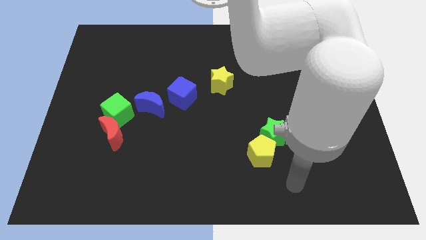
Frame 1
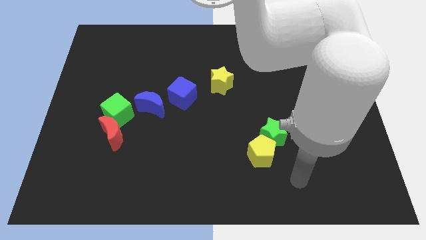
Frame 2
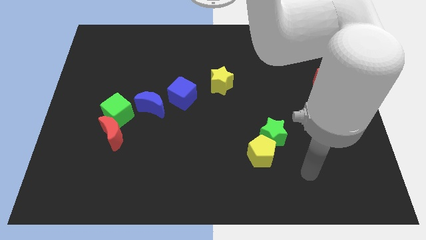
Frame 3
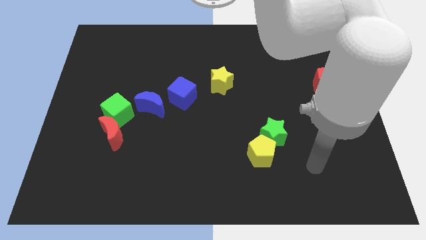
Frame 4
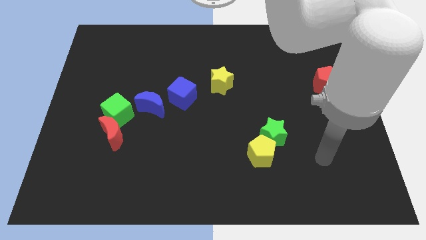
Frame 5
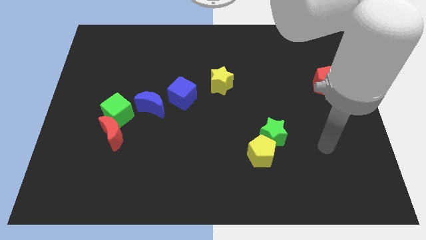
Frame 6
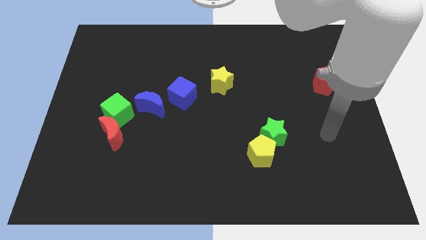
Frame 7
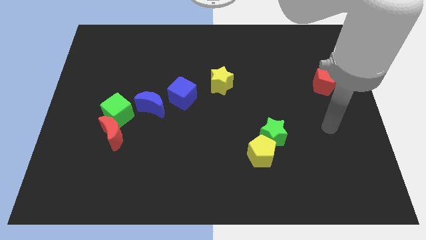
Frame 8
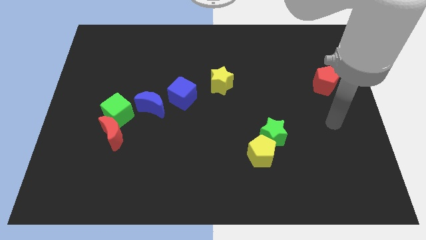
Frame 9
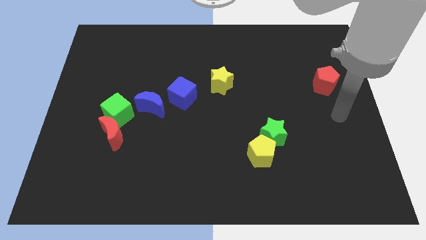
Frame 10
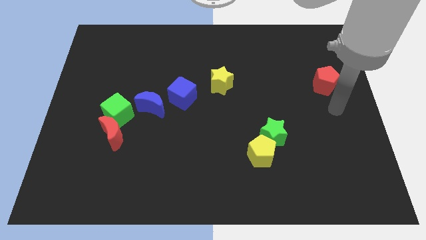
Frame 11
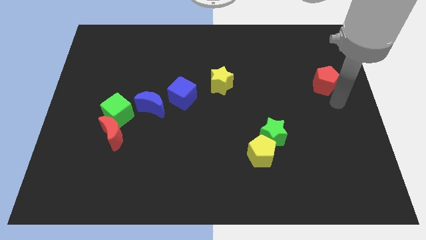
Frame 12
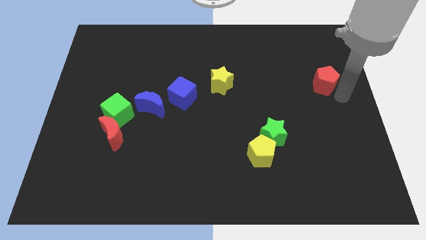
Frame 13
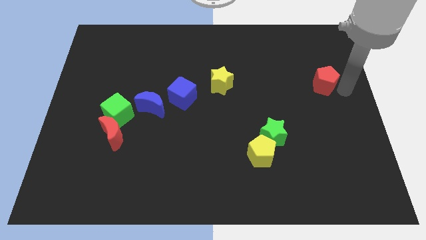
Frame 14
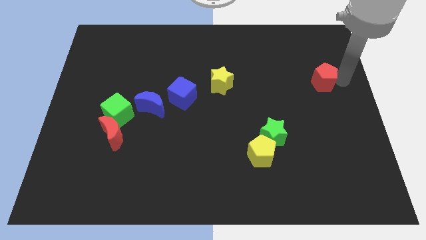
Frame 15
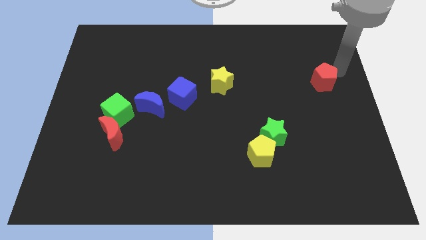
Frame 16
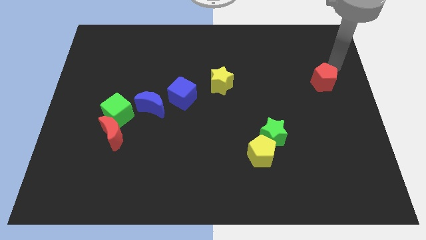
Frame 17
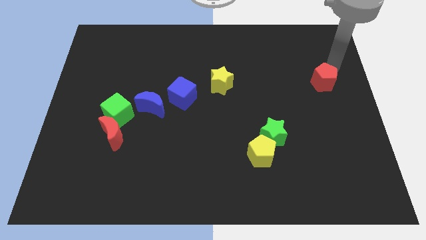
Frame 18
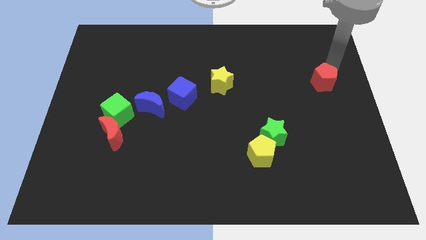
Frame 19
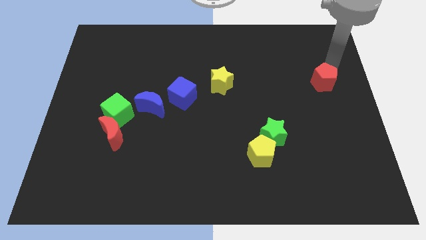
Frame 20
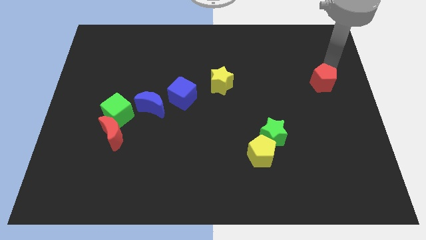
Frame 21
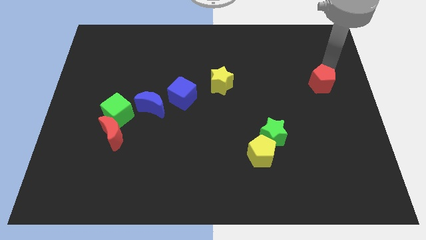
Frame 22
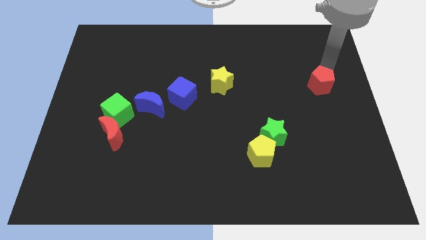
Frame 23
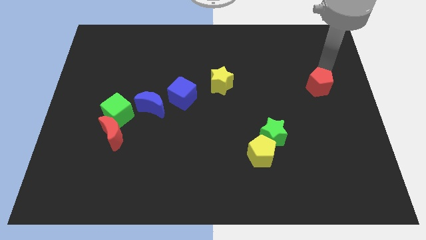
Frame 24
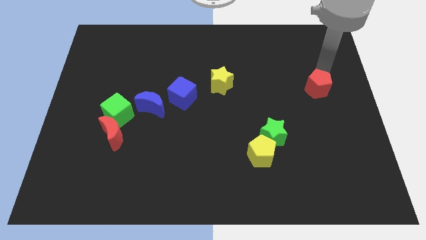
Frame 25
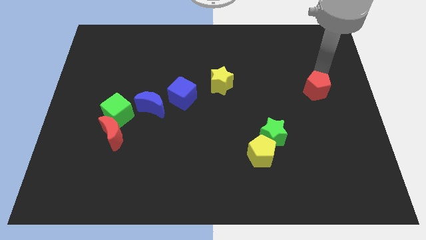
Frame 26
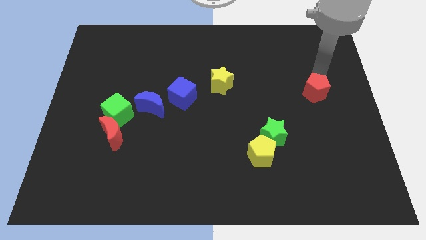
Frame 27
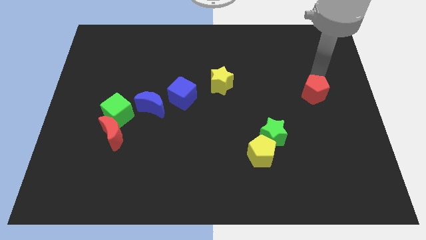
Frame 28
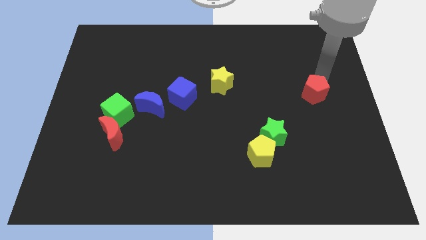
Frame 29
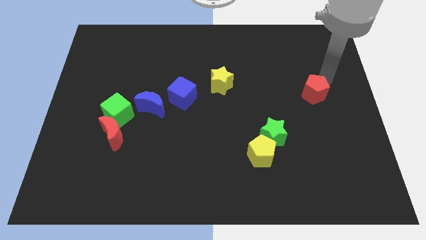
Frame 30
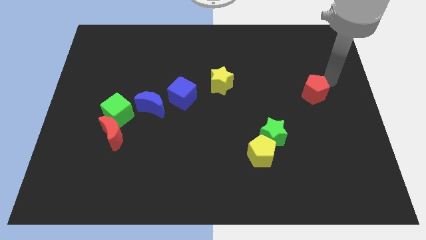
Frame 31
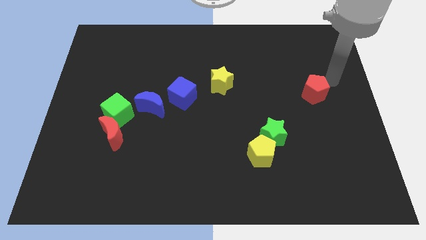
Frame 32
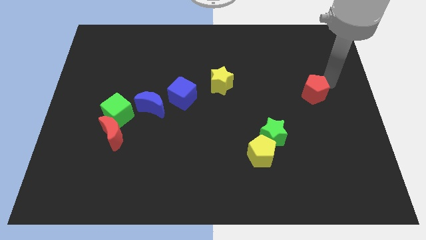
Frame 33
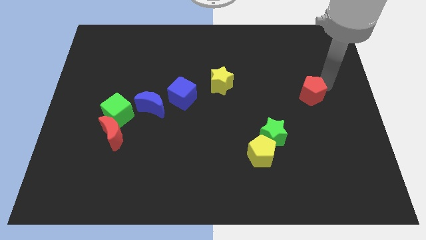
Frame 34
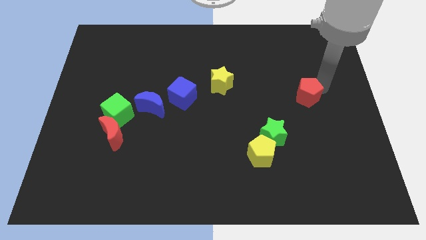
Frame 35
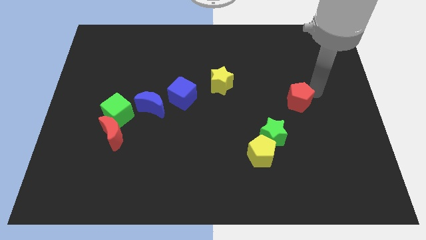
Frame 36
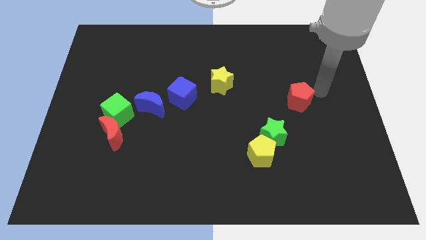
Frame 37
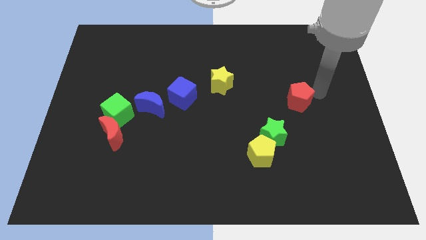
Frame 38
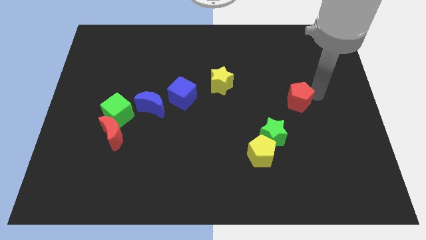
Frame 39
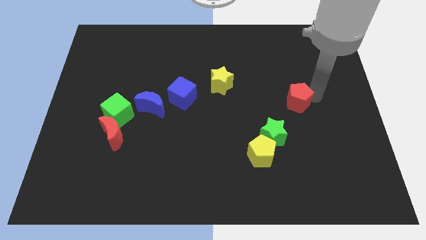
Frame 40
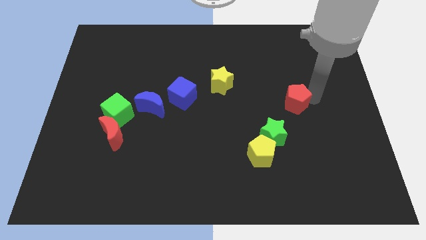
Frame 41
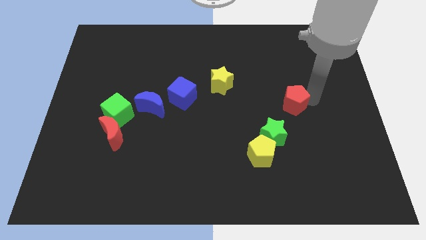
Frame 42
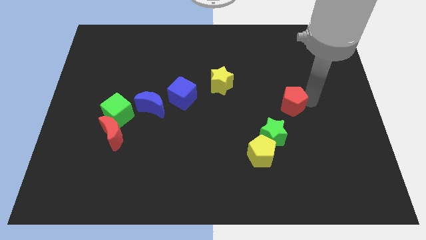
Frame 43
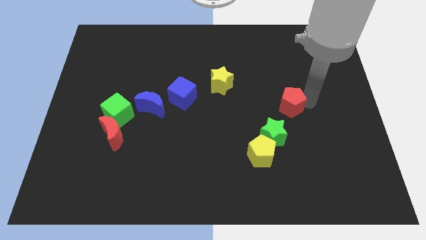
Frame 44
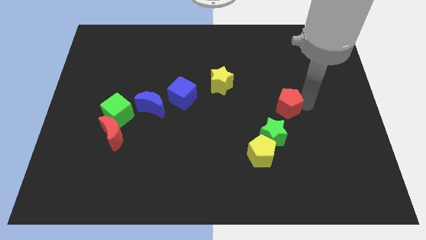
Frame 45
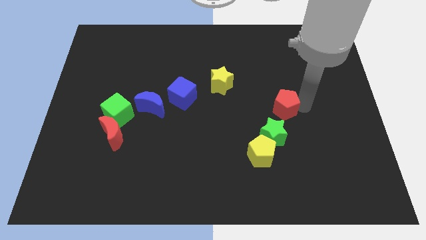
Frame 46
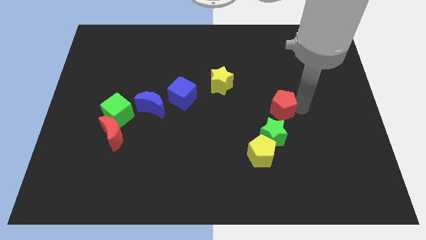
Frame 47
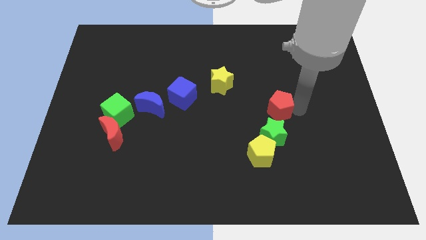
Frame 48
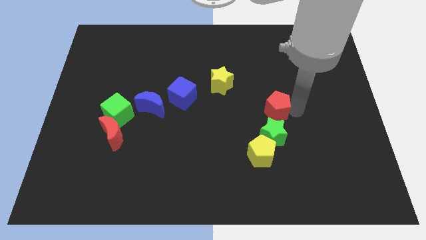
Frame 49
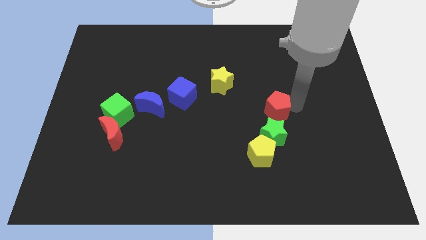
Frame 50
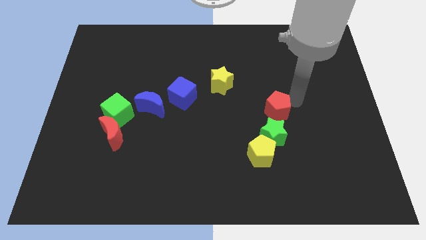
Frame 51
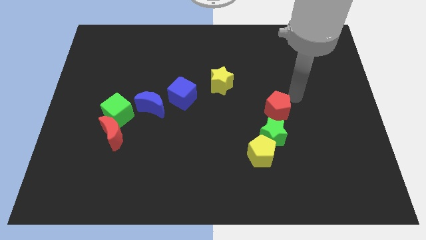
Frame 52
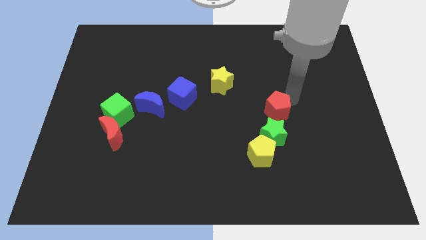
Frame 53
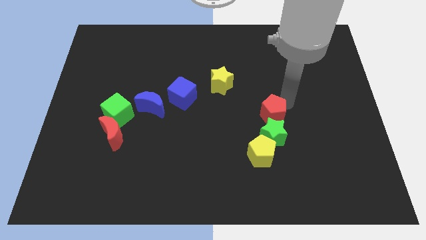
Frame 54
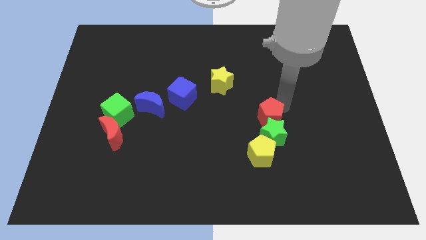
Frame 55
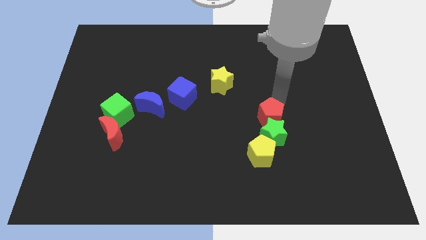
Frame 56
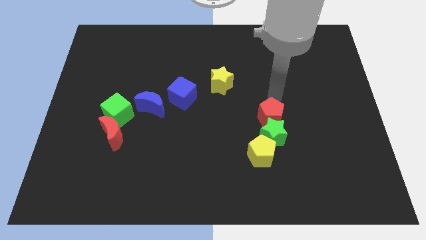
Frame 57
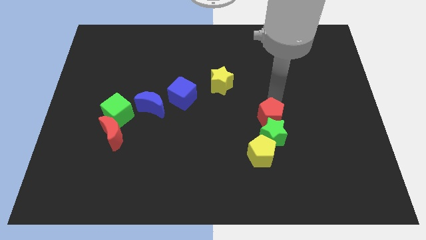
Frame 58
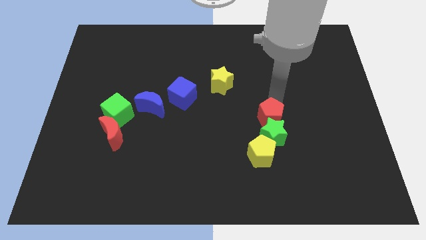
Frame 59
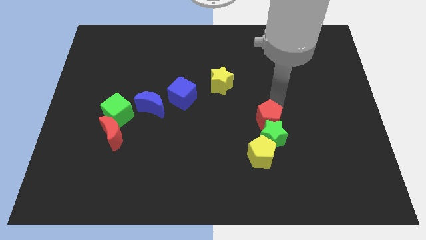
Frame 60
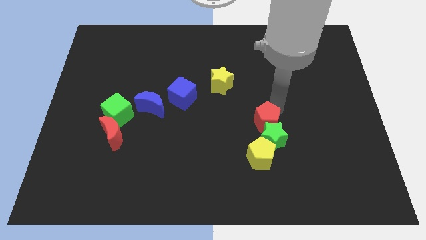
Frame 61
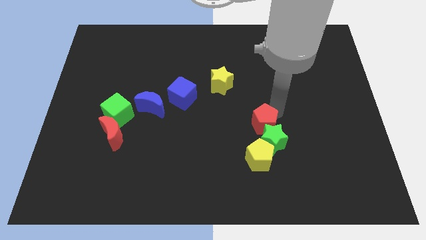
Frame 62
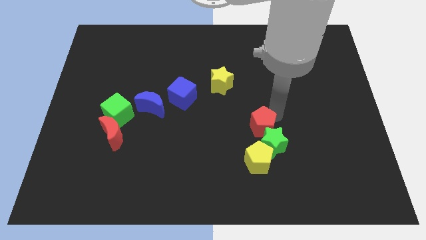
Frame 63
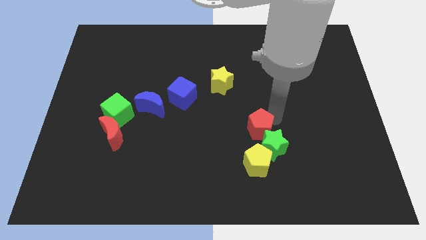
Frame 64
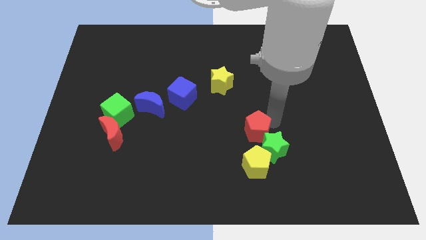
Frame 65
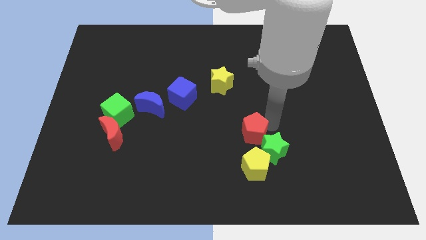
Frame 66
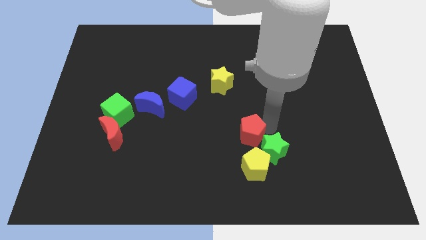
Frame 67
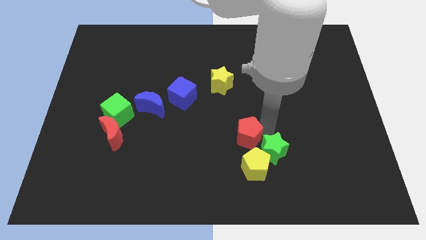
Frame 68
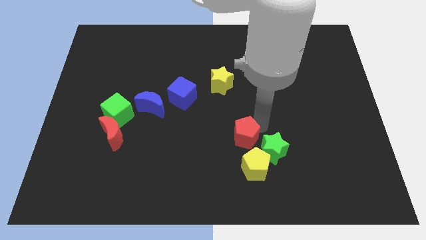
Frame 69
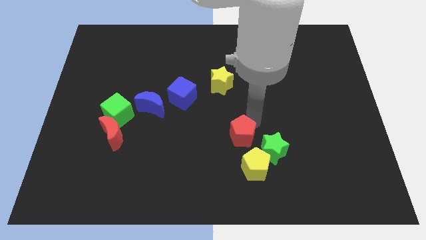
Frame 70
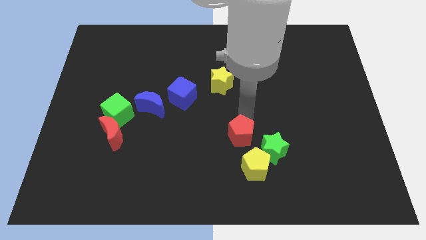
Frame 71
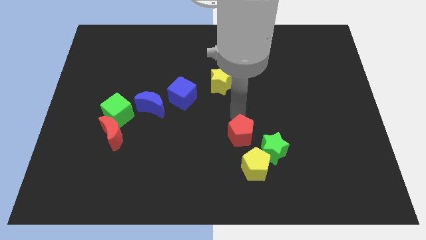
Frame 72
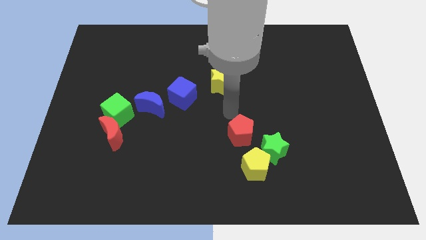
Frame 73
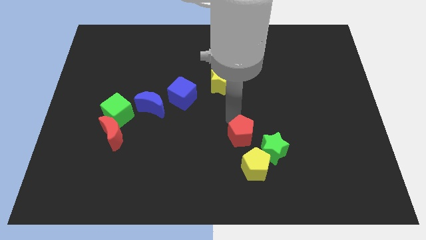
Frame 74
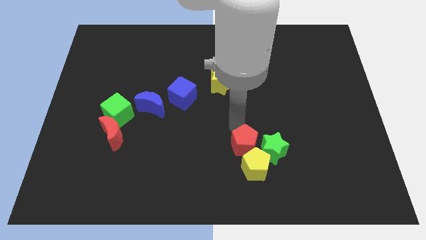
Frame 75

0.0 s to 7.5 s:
slide the red pentagon to the yellow pentagon

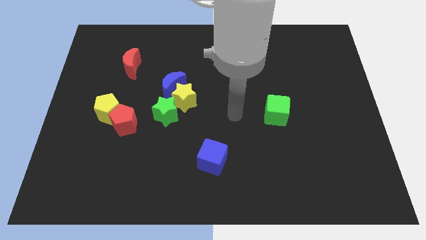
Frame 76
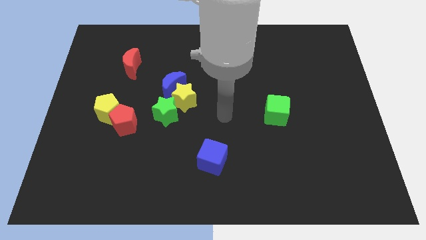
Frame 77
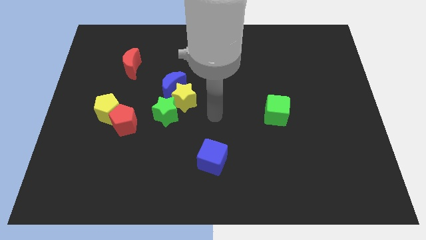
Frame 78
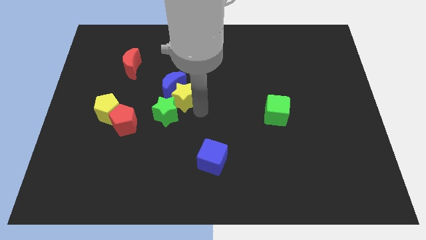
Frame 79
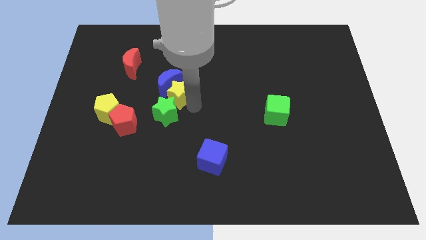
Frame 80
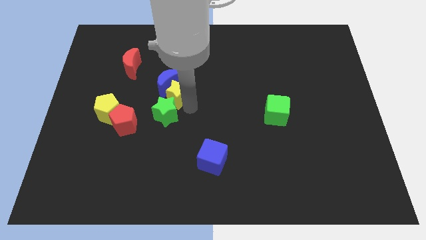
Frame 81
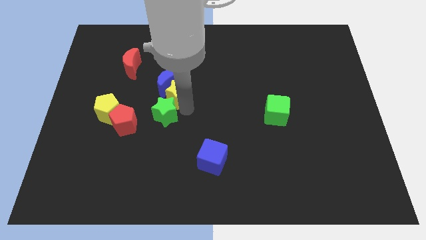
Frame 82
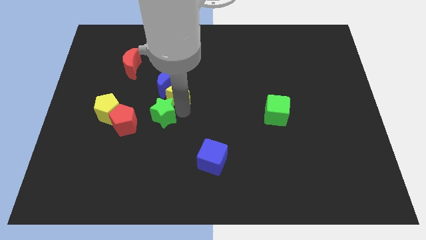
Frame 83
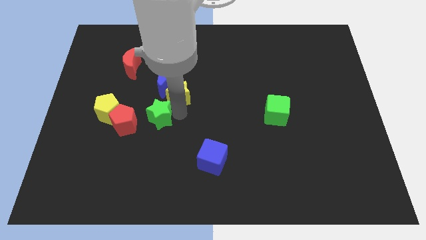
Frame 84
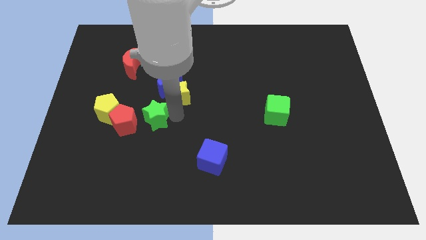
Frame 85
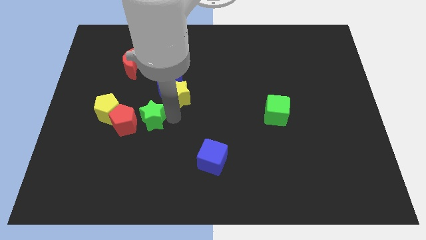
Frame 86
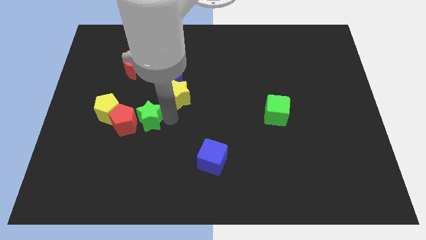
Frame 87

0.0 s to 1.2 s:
put the green star close to the red pentagon
